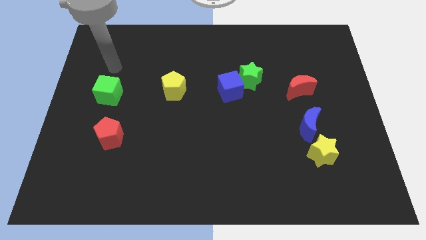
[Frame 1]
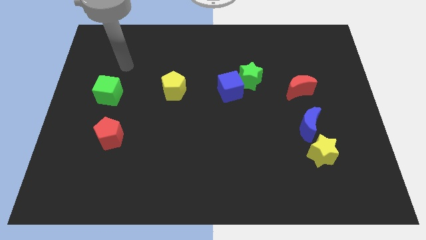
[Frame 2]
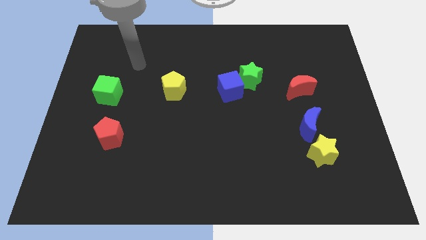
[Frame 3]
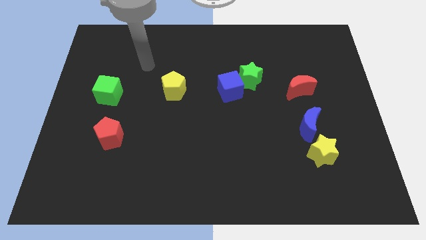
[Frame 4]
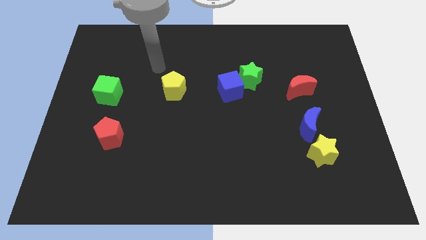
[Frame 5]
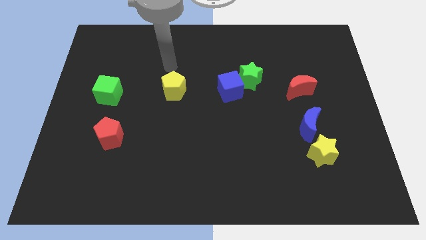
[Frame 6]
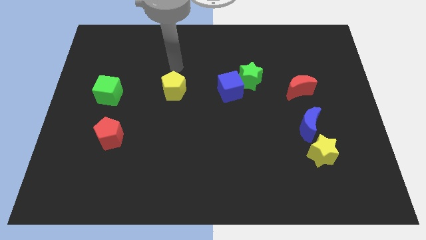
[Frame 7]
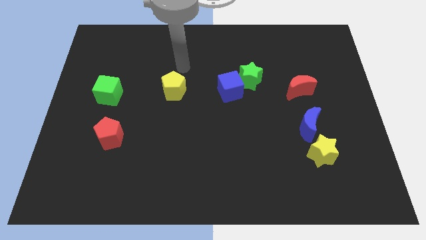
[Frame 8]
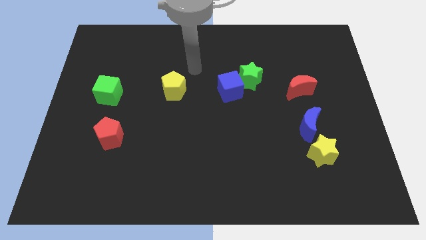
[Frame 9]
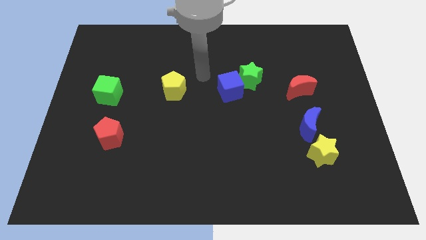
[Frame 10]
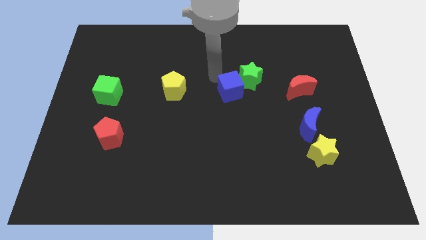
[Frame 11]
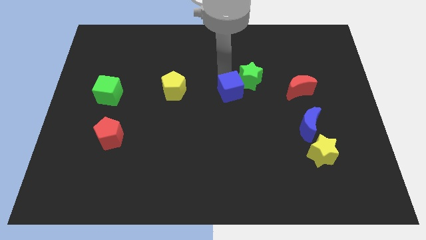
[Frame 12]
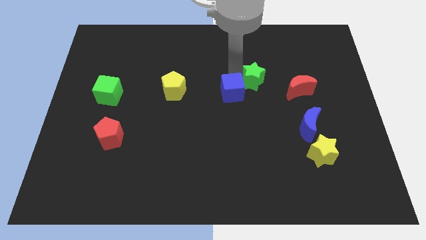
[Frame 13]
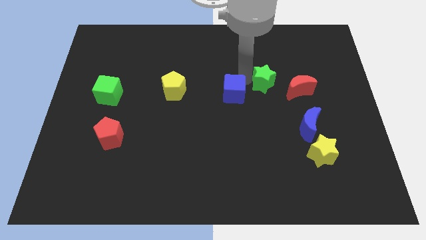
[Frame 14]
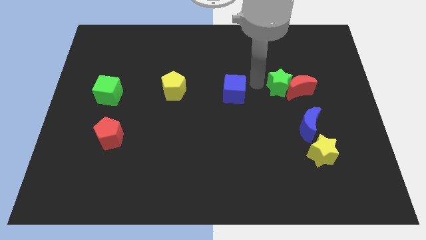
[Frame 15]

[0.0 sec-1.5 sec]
move the blue cube away from the green star

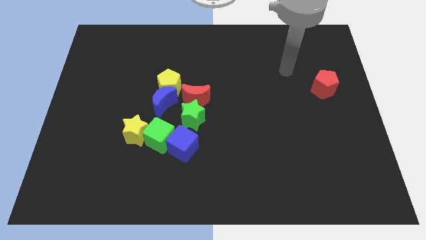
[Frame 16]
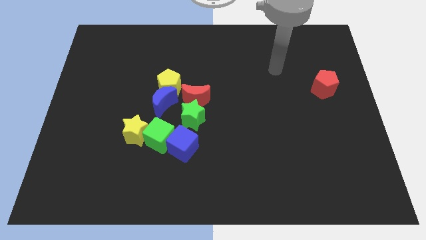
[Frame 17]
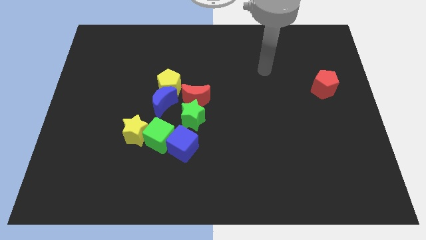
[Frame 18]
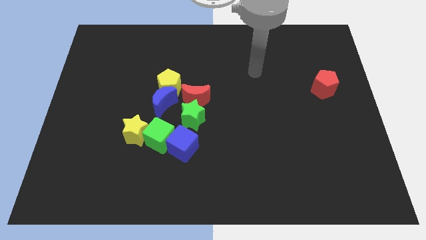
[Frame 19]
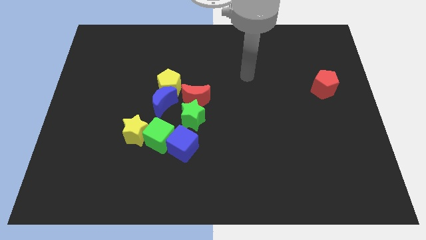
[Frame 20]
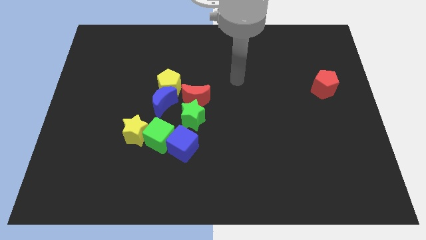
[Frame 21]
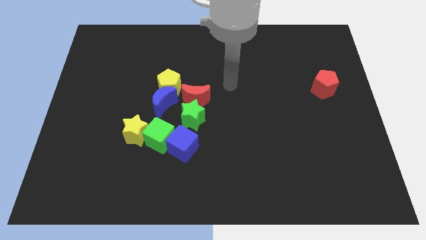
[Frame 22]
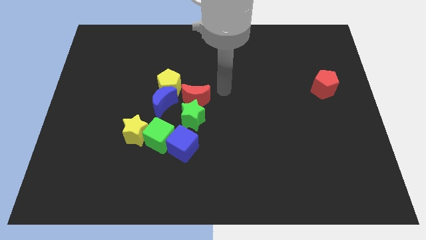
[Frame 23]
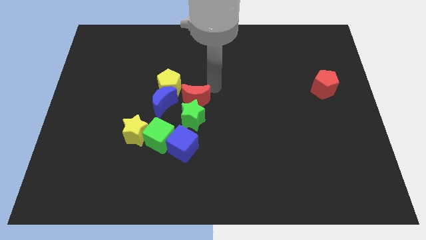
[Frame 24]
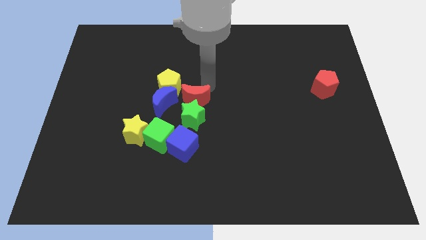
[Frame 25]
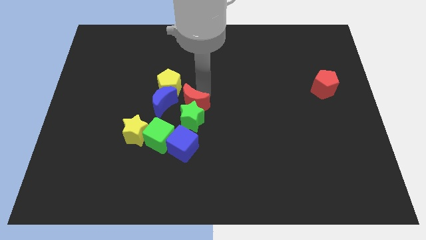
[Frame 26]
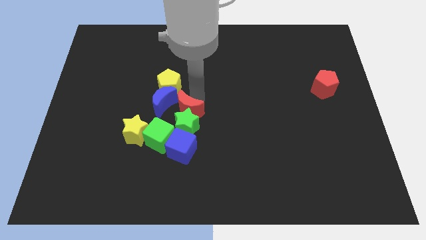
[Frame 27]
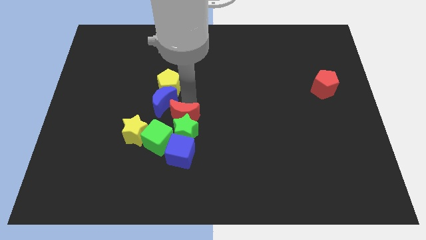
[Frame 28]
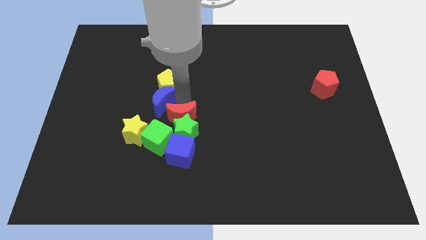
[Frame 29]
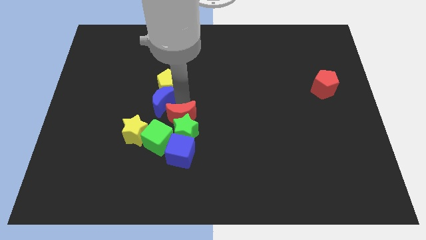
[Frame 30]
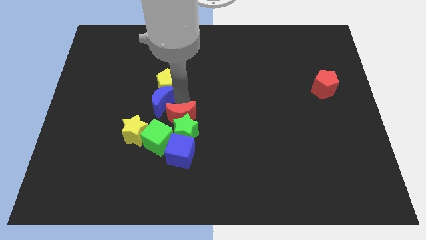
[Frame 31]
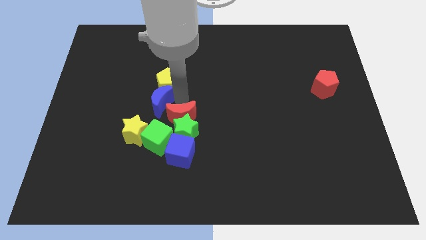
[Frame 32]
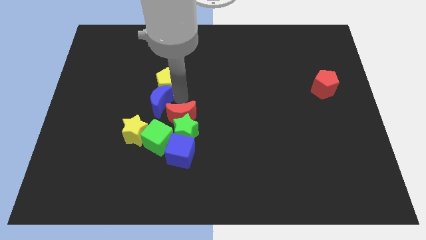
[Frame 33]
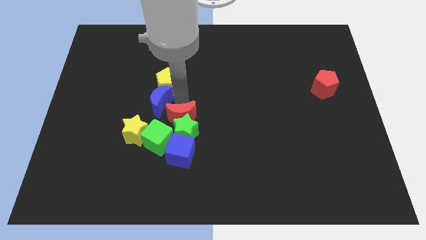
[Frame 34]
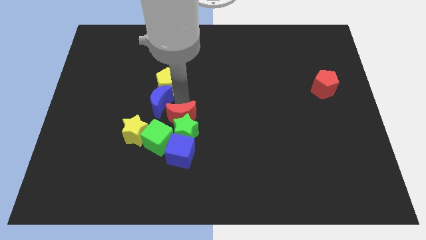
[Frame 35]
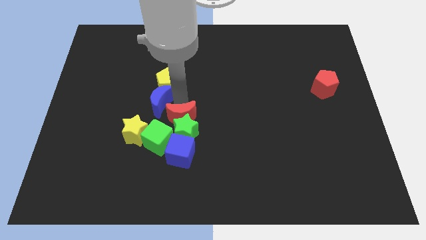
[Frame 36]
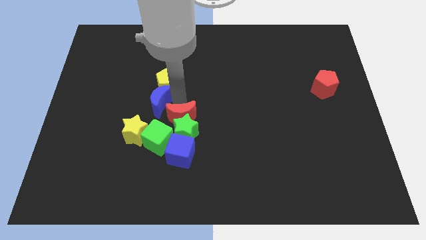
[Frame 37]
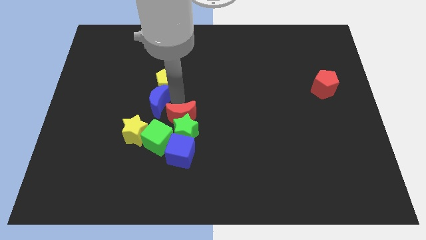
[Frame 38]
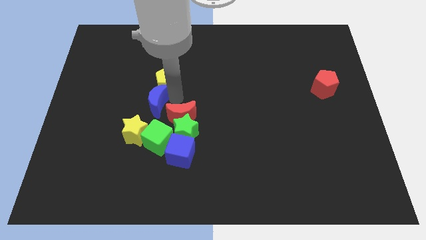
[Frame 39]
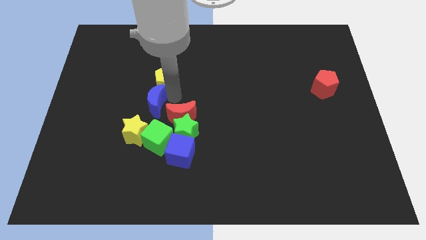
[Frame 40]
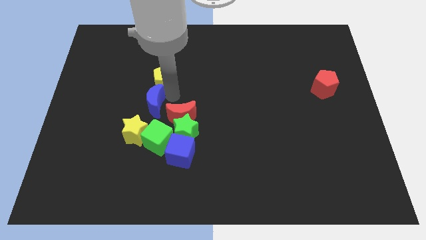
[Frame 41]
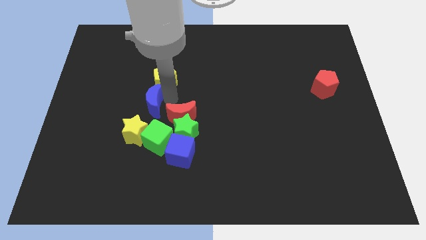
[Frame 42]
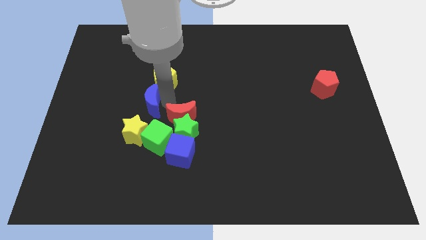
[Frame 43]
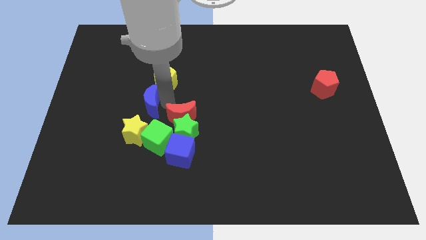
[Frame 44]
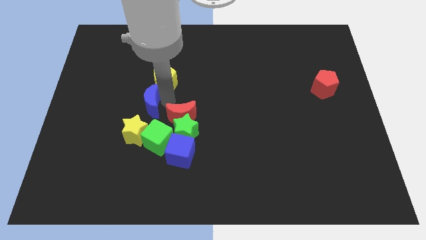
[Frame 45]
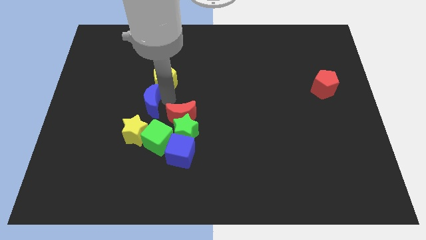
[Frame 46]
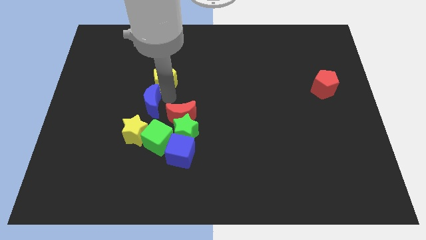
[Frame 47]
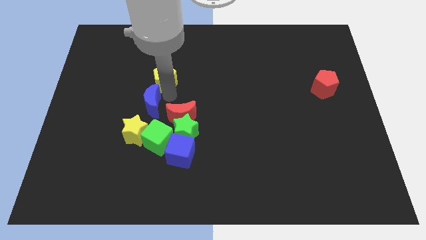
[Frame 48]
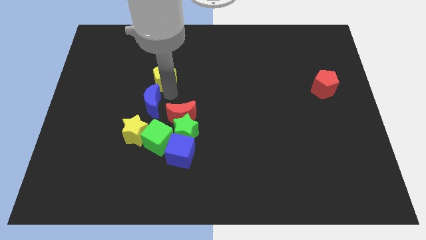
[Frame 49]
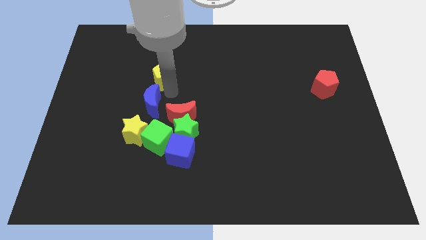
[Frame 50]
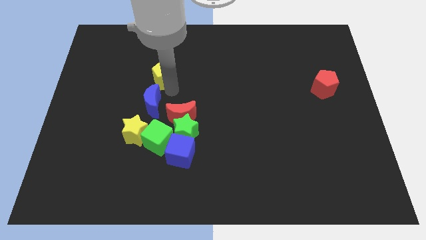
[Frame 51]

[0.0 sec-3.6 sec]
separate the yellow pentagon from the blue moon and red moon

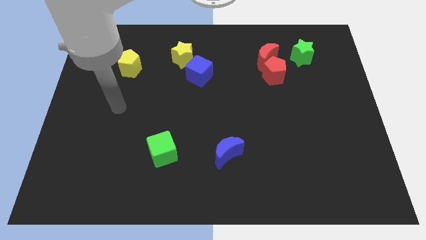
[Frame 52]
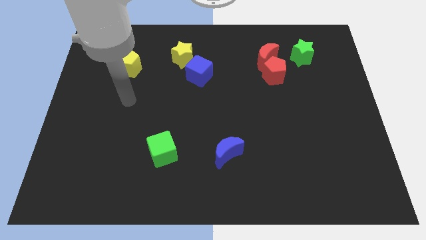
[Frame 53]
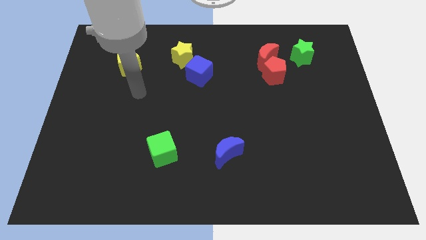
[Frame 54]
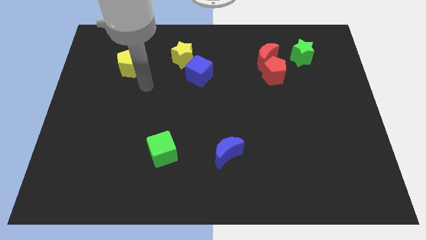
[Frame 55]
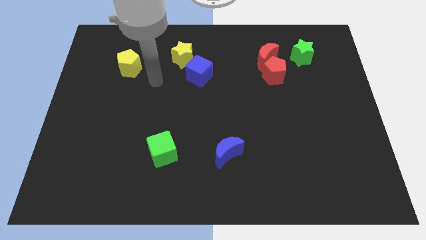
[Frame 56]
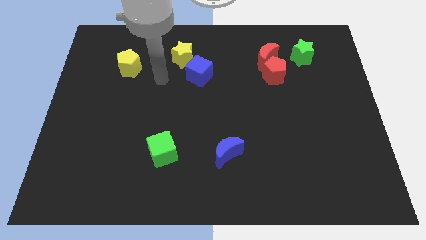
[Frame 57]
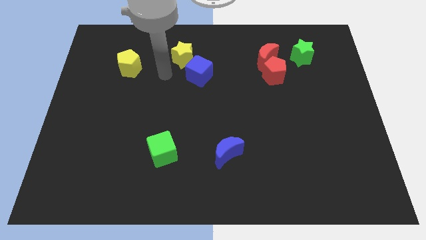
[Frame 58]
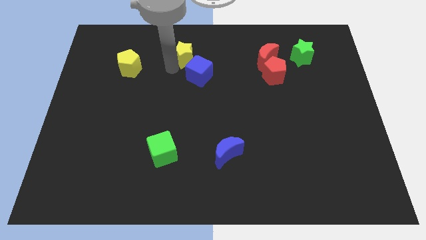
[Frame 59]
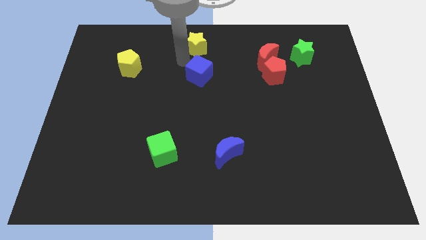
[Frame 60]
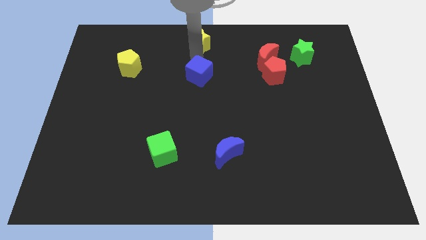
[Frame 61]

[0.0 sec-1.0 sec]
separate the blue cube from the yellow star

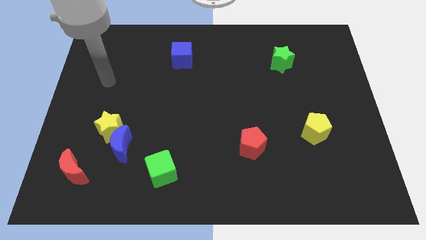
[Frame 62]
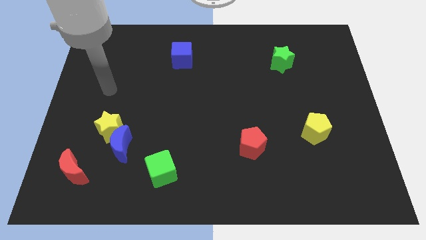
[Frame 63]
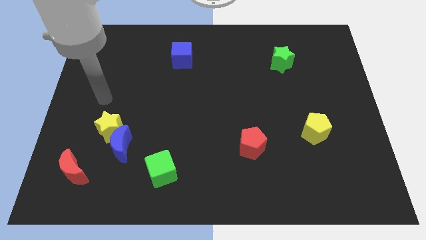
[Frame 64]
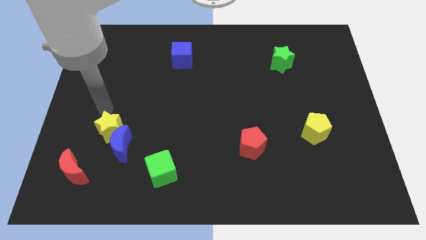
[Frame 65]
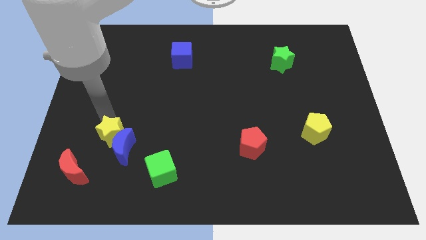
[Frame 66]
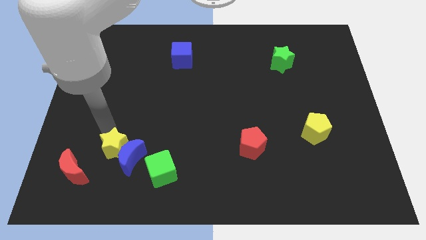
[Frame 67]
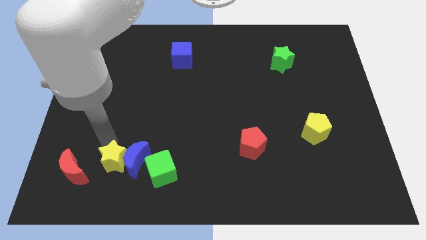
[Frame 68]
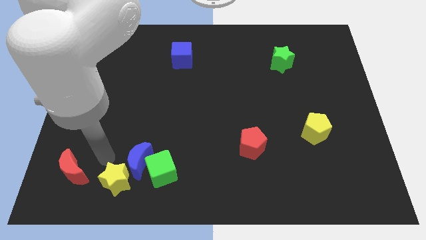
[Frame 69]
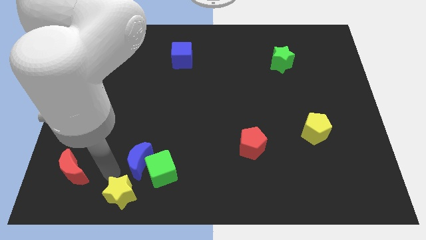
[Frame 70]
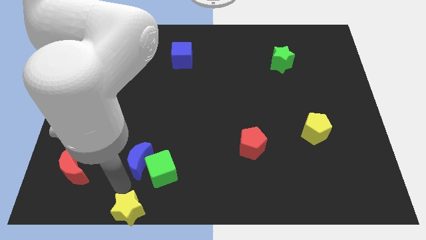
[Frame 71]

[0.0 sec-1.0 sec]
move the blue moon away from the yellow star

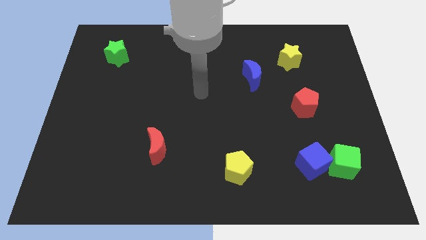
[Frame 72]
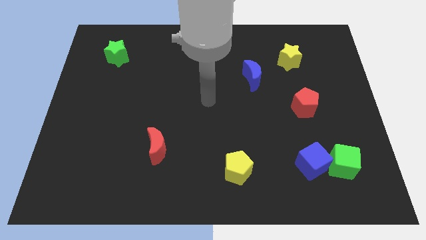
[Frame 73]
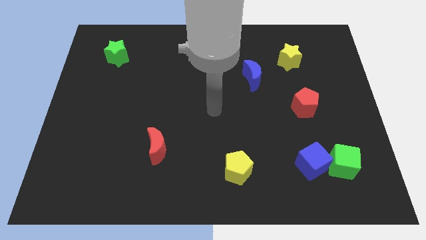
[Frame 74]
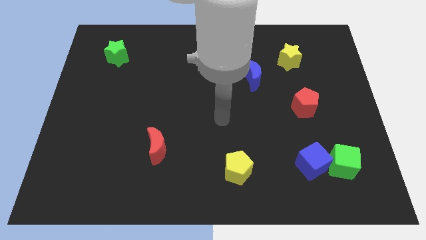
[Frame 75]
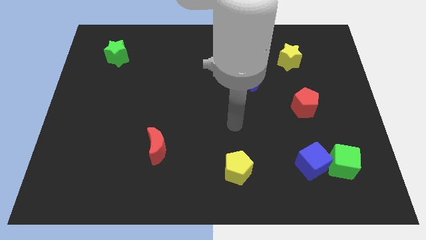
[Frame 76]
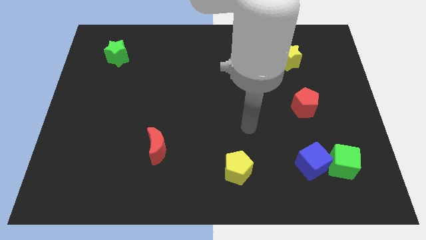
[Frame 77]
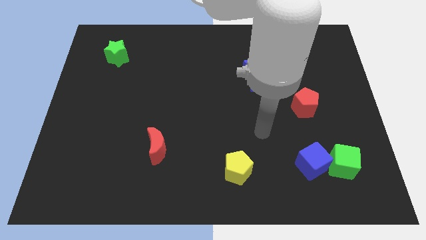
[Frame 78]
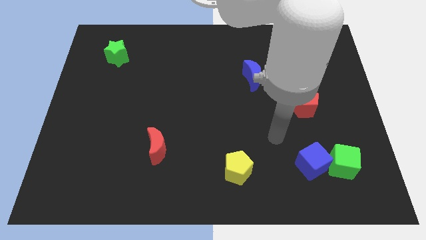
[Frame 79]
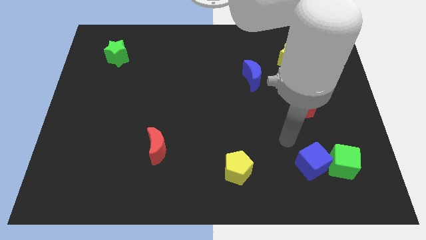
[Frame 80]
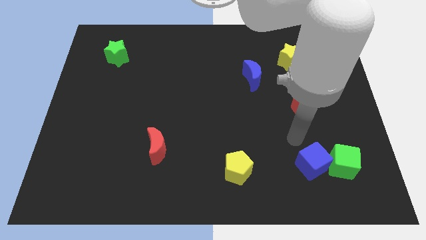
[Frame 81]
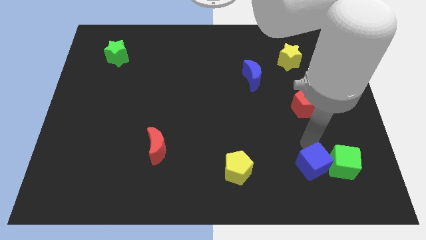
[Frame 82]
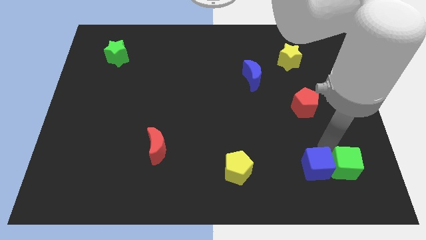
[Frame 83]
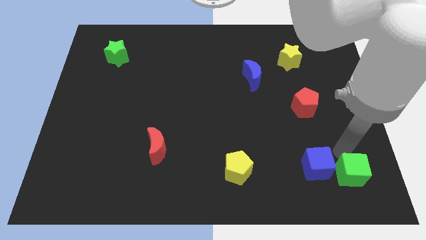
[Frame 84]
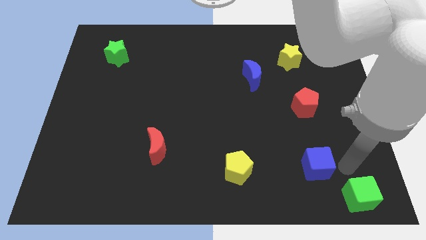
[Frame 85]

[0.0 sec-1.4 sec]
separate the blue cube from the green cube

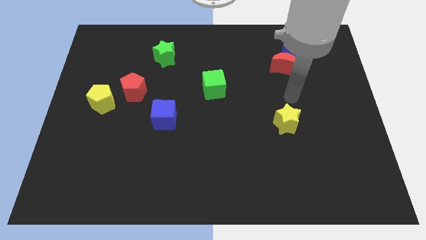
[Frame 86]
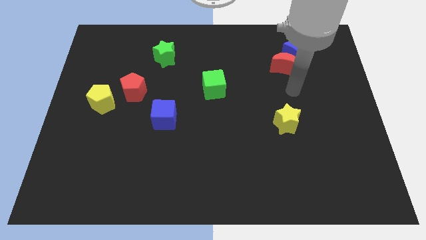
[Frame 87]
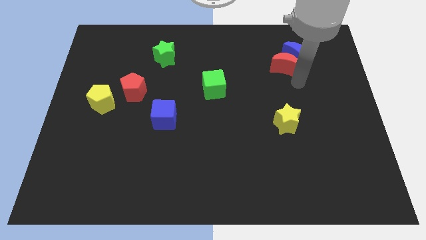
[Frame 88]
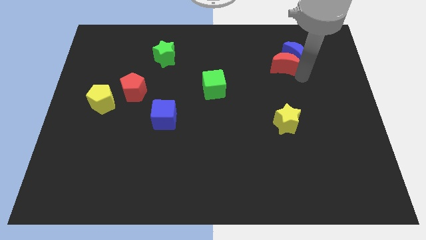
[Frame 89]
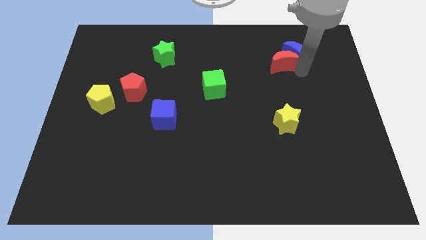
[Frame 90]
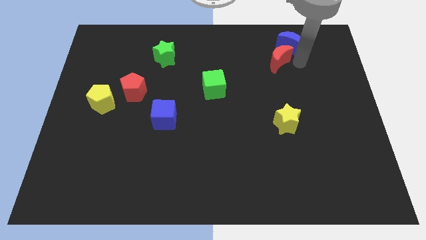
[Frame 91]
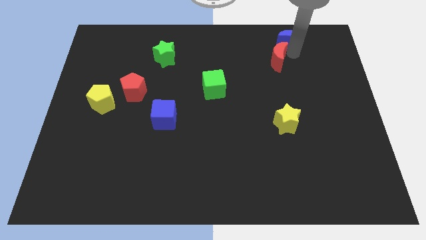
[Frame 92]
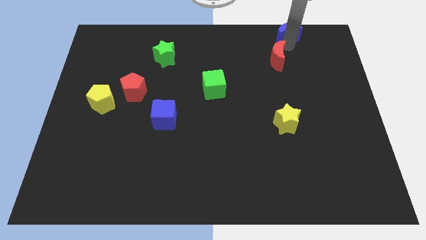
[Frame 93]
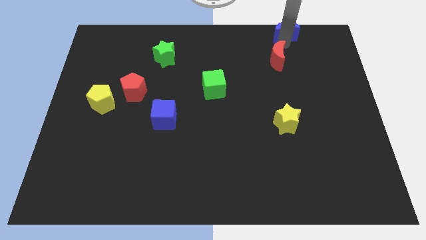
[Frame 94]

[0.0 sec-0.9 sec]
separate the red moon from the blue moon
